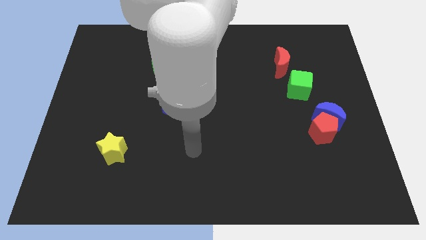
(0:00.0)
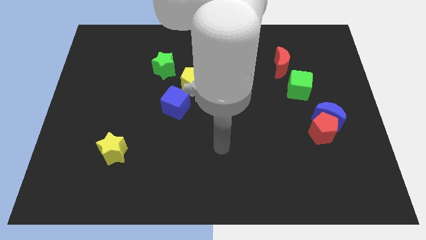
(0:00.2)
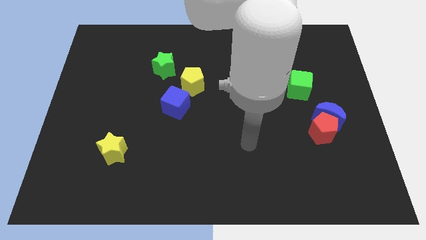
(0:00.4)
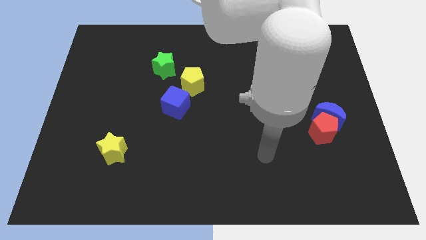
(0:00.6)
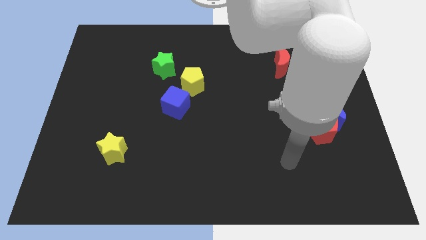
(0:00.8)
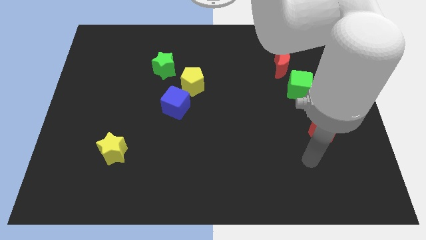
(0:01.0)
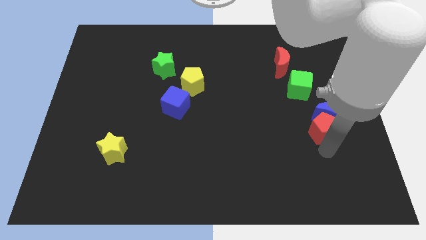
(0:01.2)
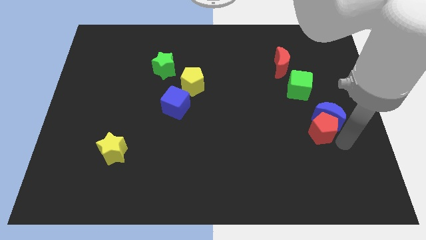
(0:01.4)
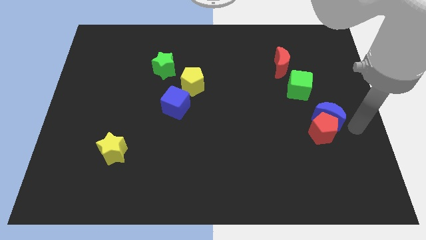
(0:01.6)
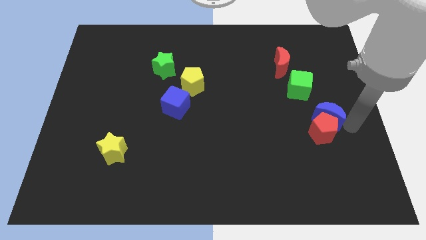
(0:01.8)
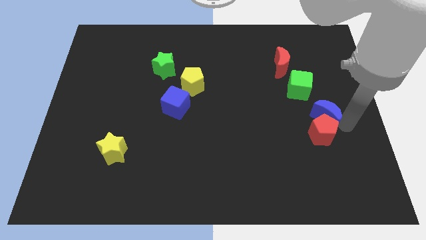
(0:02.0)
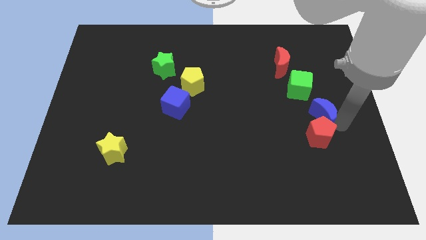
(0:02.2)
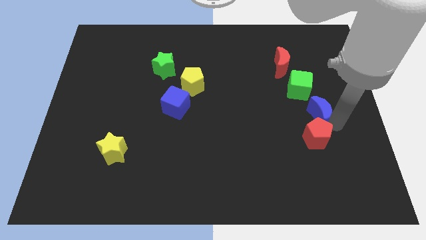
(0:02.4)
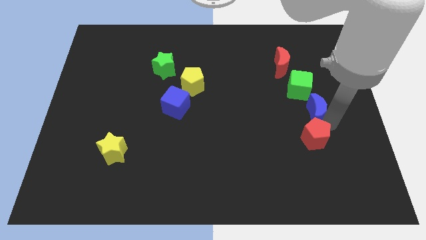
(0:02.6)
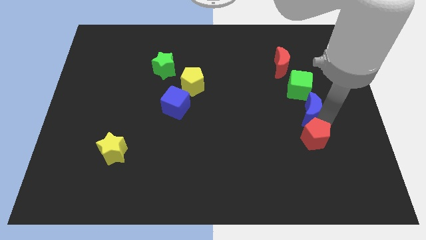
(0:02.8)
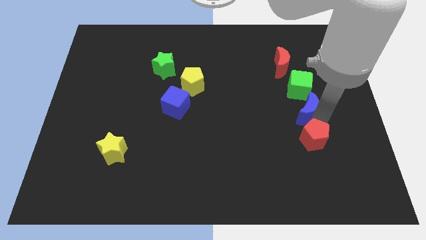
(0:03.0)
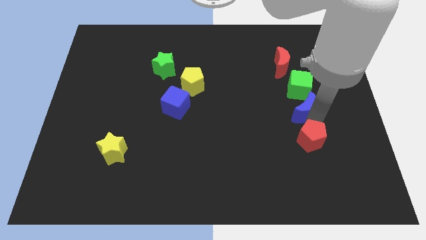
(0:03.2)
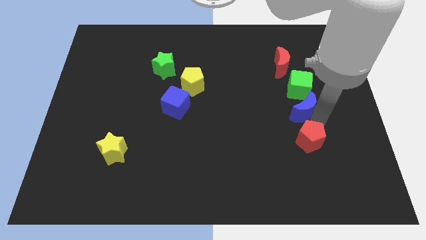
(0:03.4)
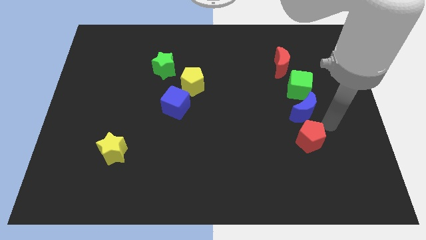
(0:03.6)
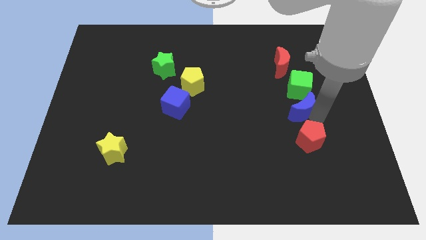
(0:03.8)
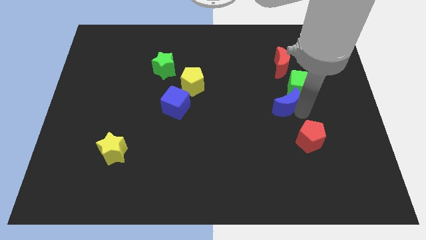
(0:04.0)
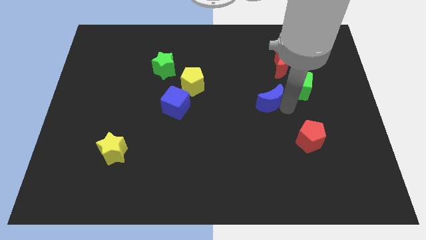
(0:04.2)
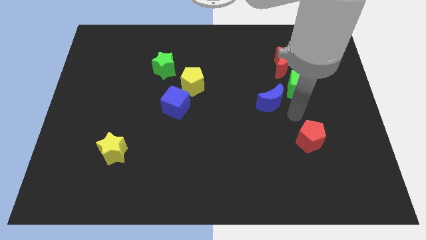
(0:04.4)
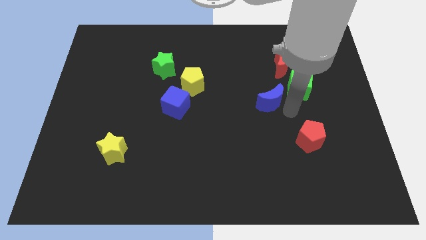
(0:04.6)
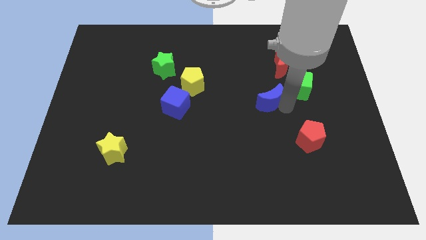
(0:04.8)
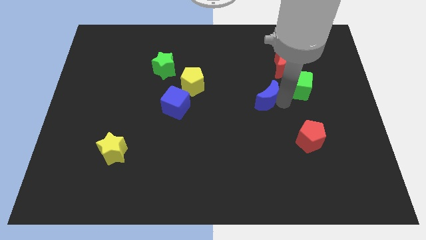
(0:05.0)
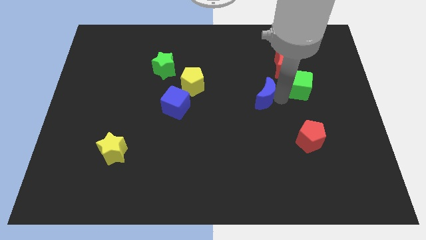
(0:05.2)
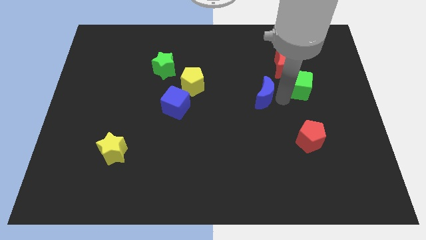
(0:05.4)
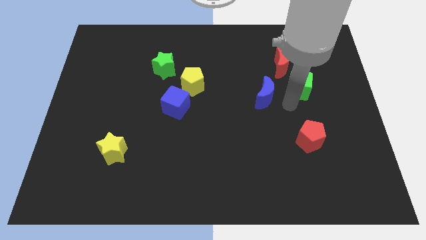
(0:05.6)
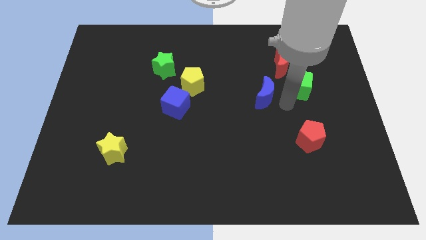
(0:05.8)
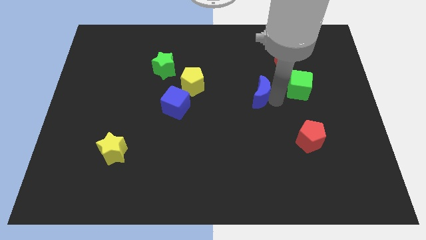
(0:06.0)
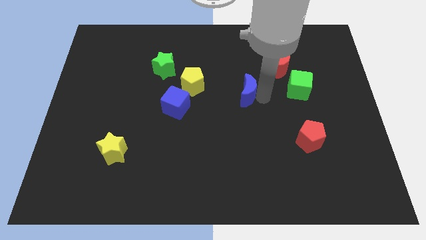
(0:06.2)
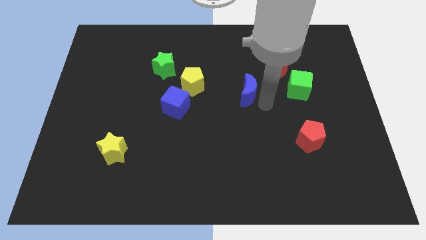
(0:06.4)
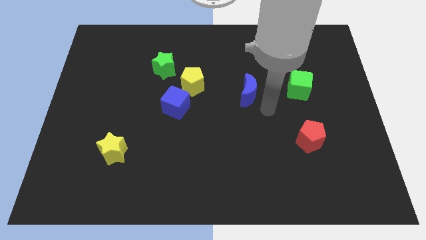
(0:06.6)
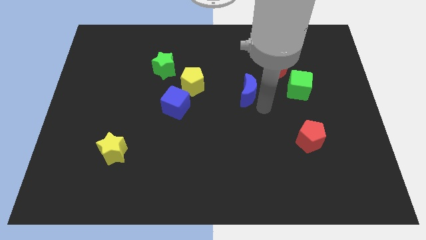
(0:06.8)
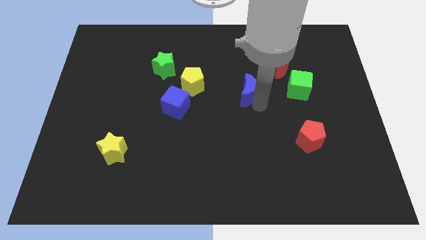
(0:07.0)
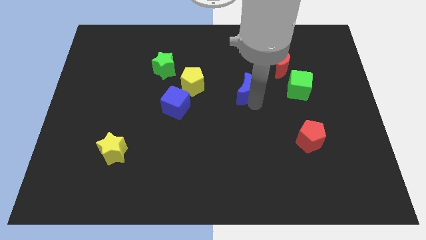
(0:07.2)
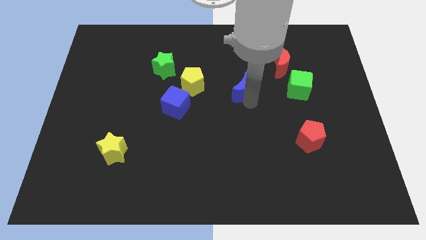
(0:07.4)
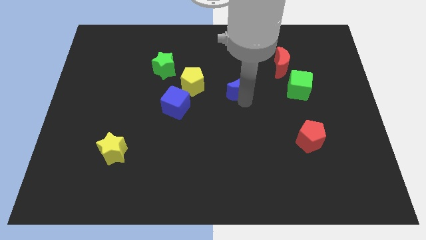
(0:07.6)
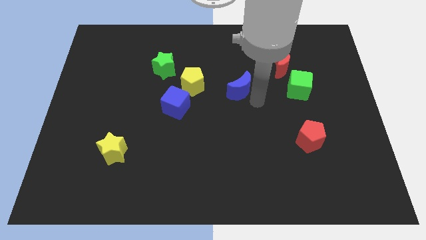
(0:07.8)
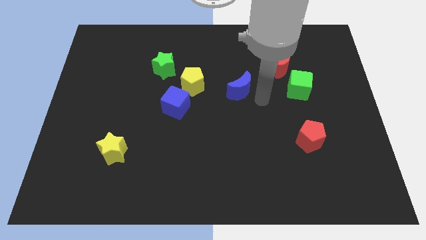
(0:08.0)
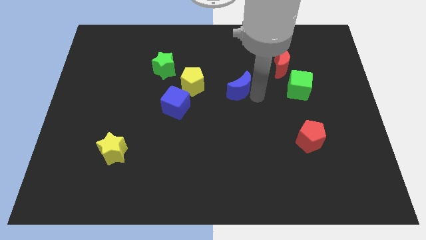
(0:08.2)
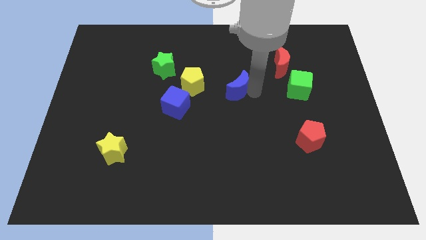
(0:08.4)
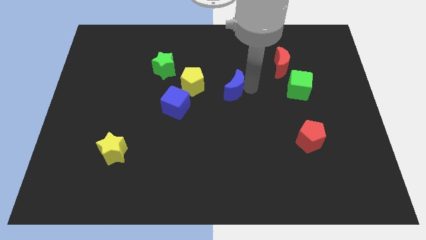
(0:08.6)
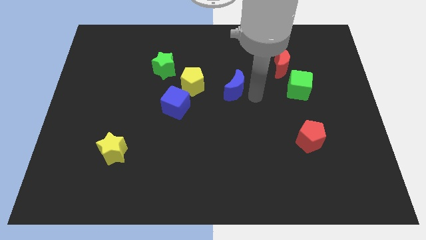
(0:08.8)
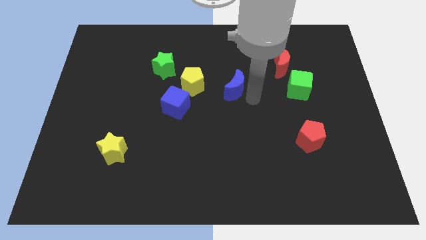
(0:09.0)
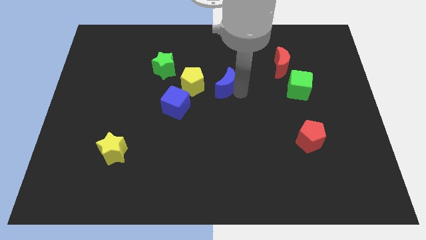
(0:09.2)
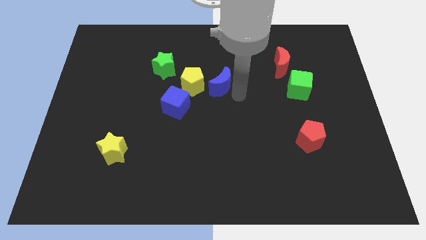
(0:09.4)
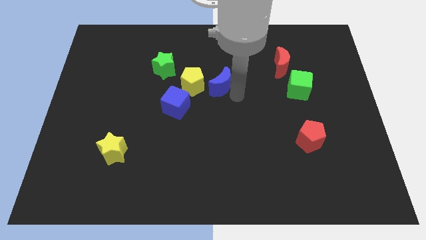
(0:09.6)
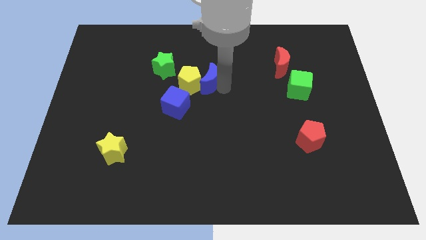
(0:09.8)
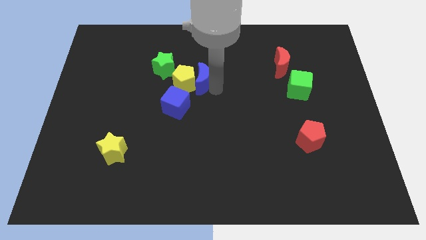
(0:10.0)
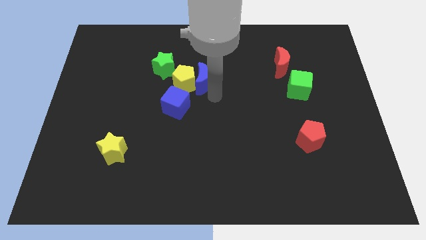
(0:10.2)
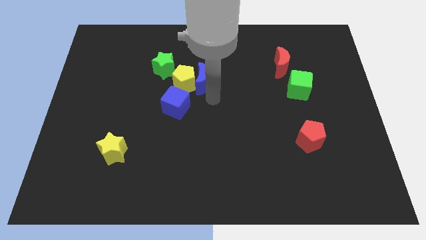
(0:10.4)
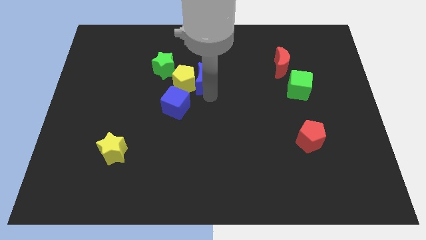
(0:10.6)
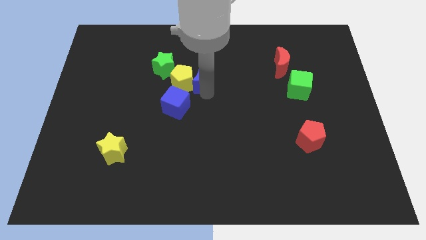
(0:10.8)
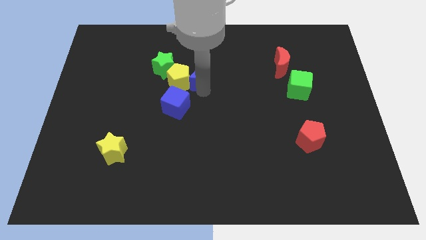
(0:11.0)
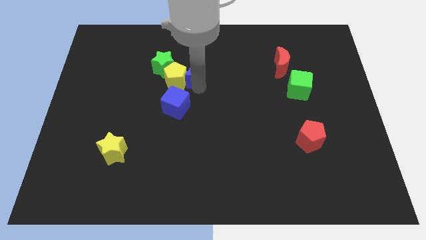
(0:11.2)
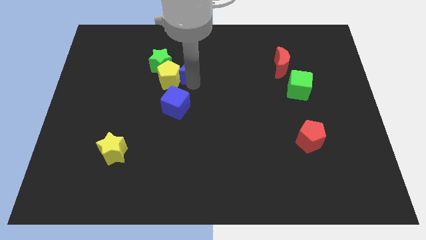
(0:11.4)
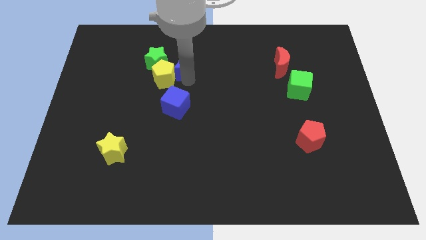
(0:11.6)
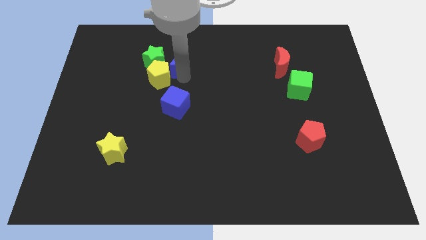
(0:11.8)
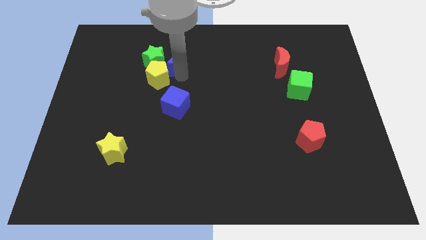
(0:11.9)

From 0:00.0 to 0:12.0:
push the blue moon next to the green star
